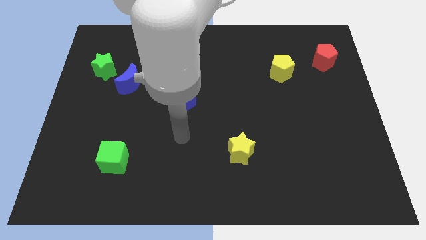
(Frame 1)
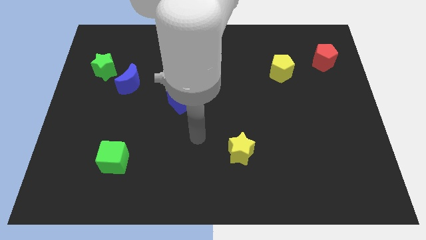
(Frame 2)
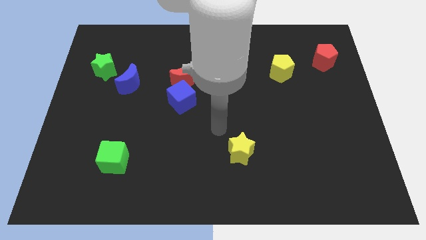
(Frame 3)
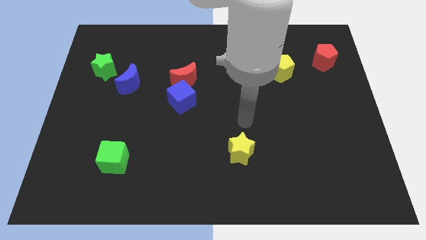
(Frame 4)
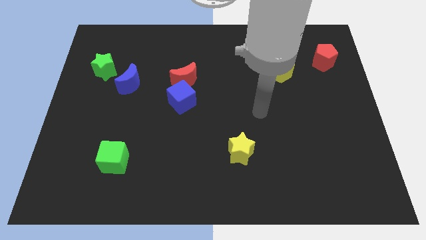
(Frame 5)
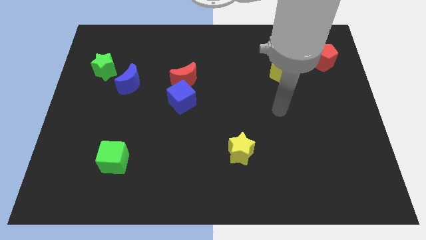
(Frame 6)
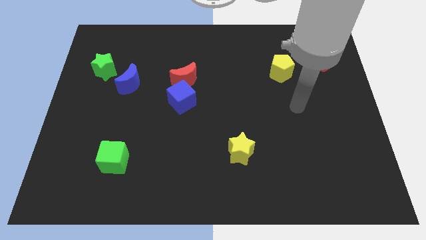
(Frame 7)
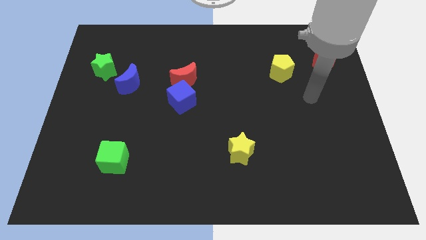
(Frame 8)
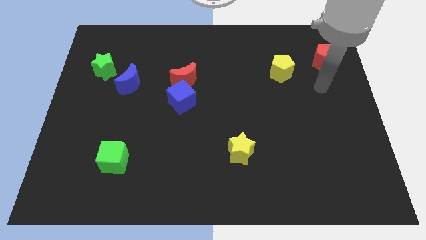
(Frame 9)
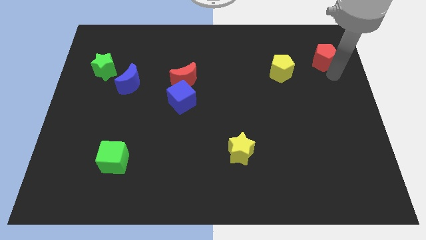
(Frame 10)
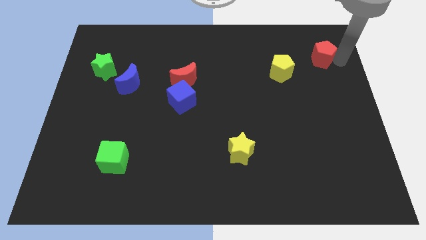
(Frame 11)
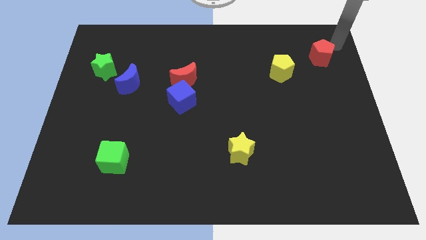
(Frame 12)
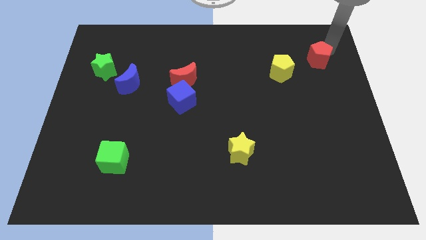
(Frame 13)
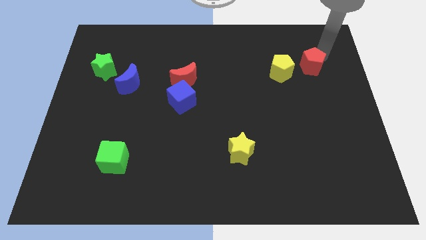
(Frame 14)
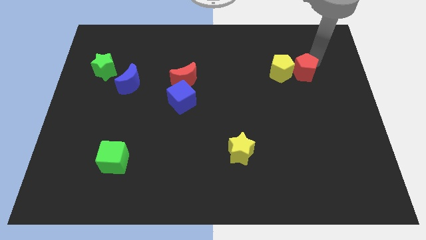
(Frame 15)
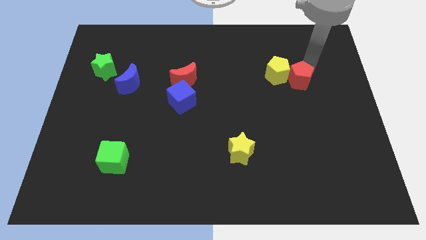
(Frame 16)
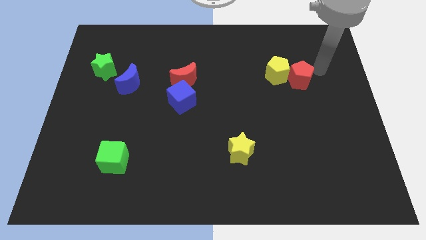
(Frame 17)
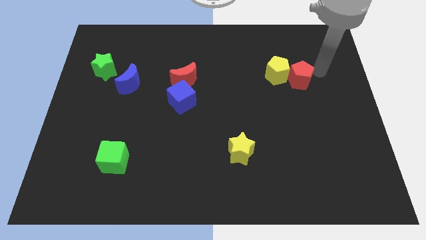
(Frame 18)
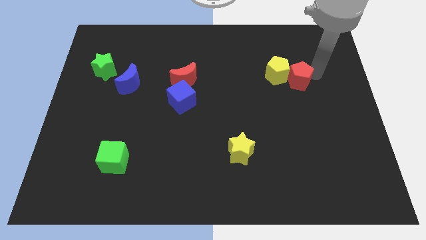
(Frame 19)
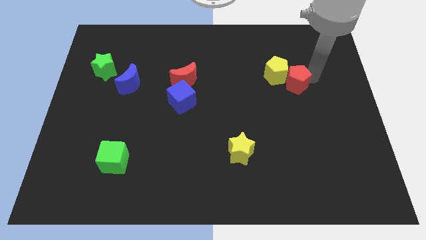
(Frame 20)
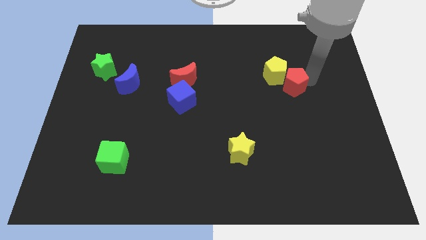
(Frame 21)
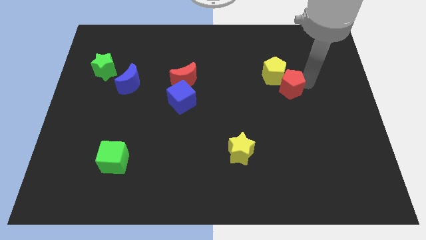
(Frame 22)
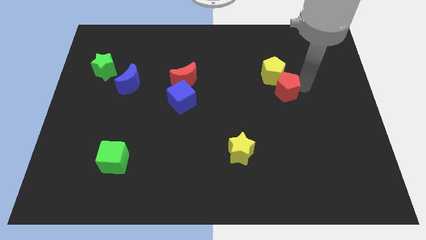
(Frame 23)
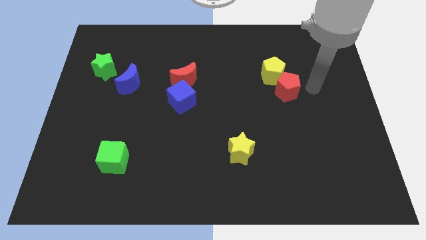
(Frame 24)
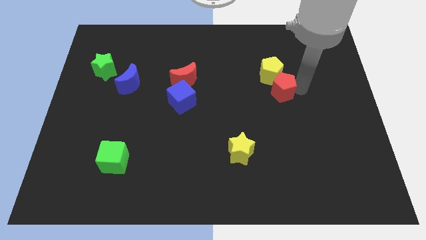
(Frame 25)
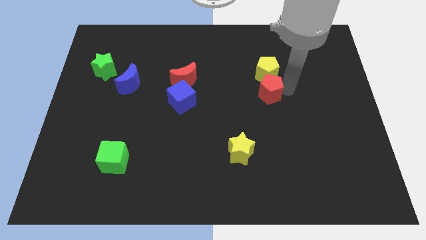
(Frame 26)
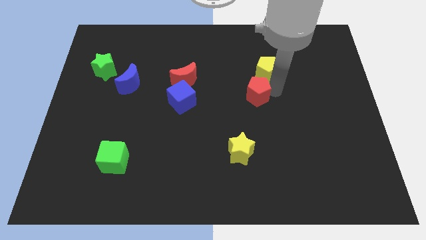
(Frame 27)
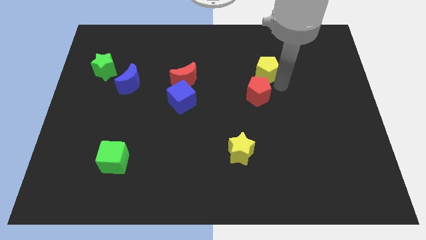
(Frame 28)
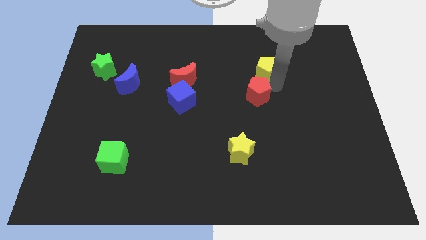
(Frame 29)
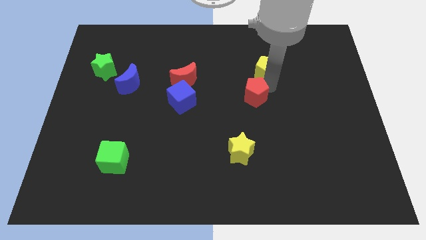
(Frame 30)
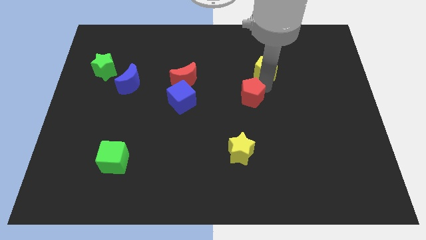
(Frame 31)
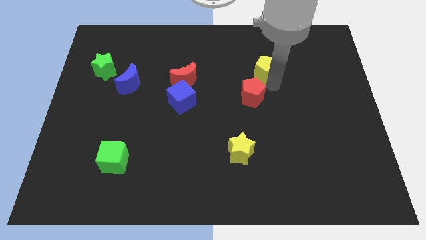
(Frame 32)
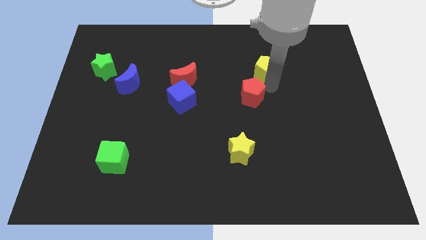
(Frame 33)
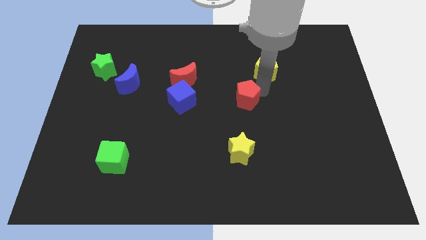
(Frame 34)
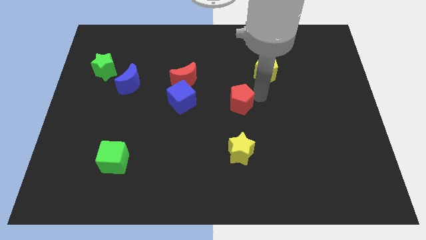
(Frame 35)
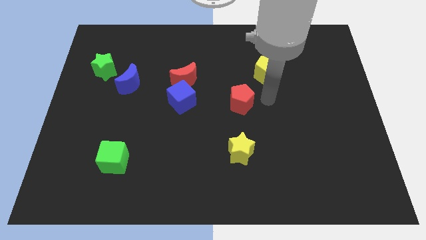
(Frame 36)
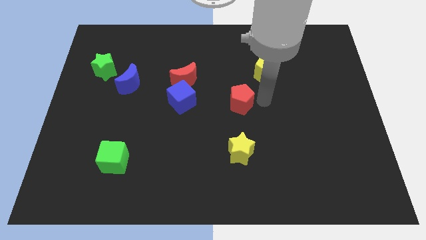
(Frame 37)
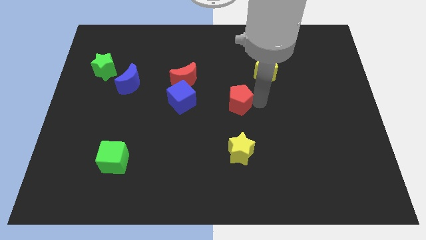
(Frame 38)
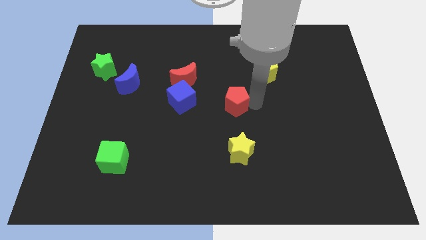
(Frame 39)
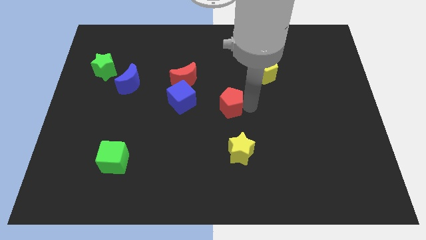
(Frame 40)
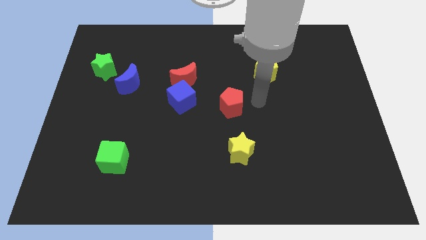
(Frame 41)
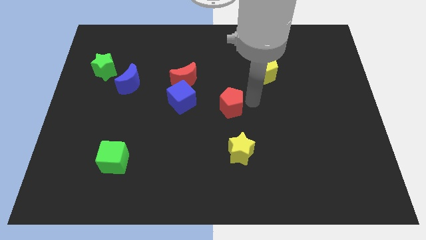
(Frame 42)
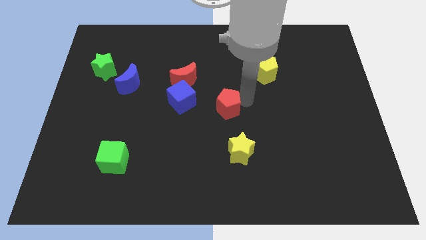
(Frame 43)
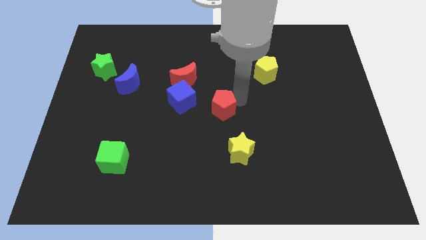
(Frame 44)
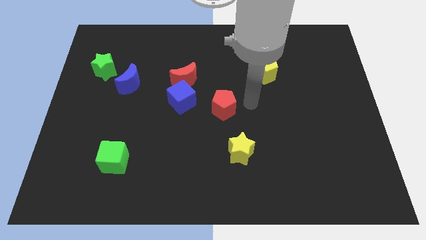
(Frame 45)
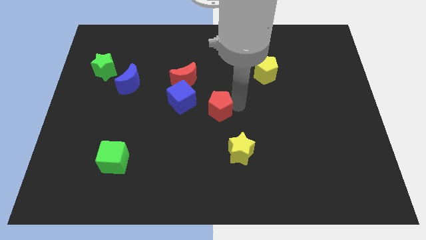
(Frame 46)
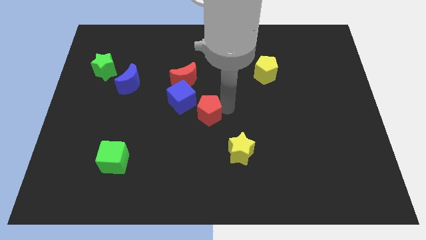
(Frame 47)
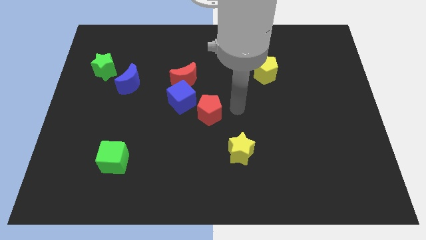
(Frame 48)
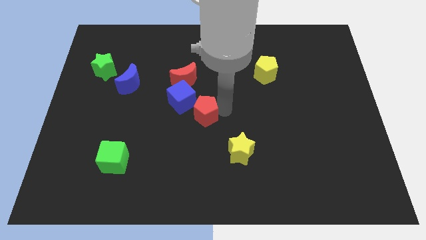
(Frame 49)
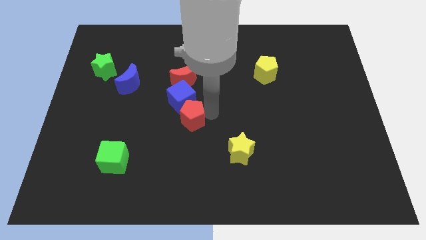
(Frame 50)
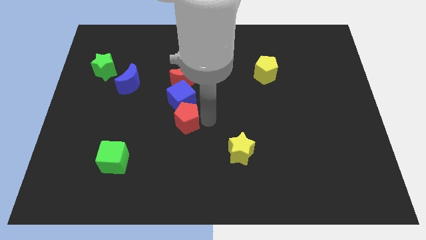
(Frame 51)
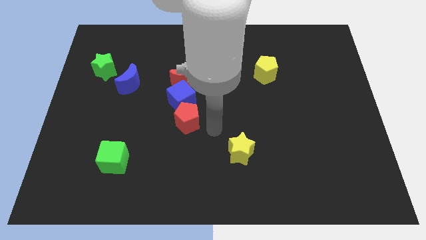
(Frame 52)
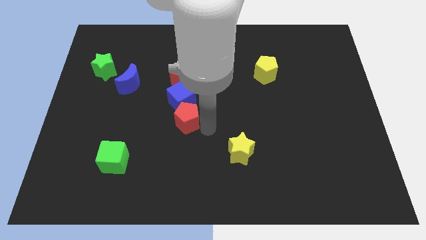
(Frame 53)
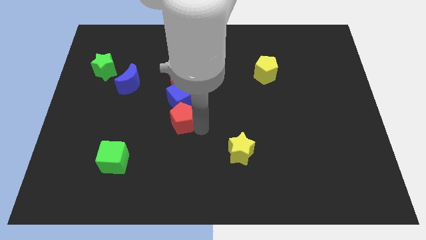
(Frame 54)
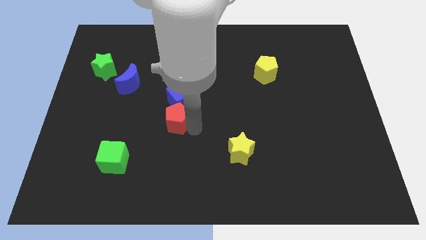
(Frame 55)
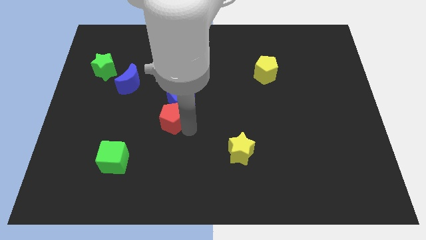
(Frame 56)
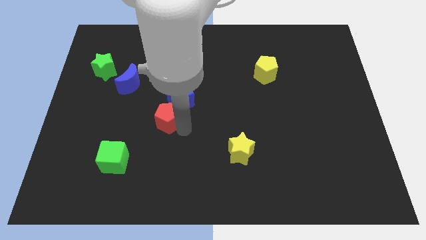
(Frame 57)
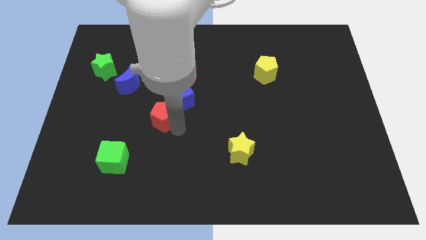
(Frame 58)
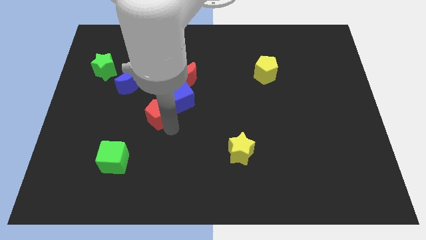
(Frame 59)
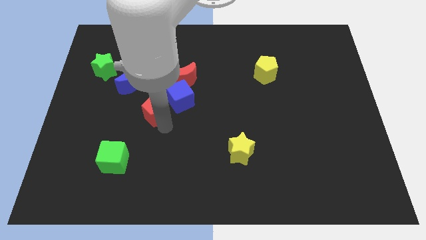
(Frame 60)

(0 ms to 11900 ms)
move the red pentagon diagonally down and to the left of the red moon
